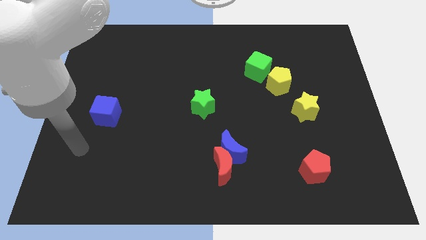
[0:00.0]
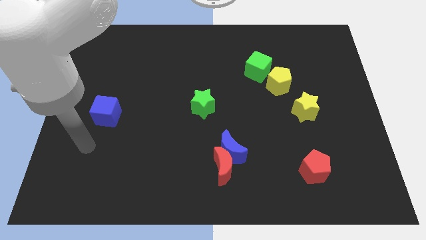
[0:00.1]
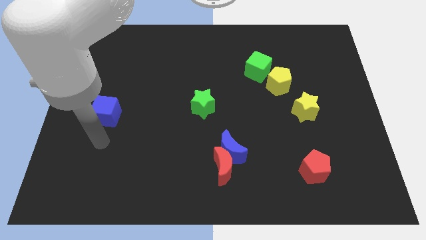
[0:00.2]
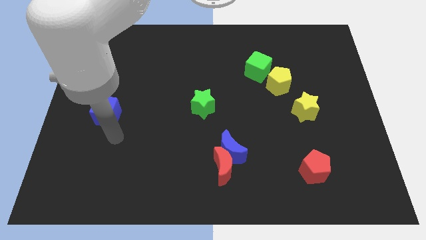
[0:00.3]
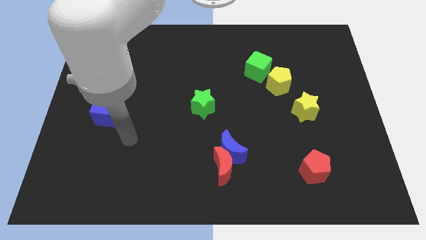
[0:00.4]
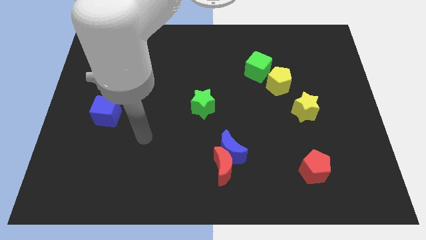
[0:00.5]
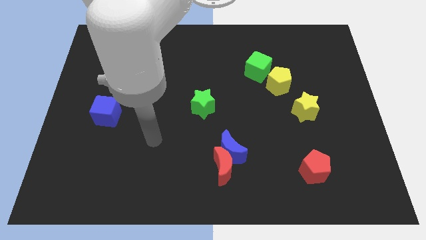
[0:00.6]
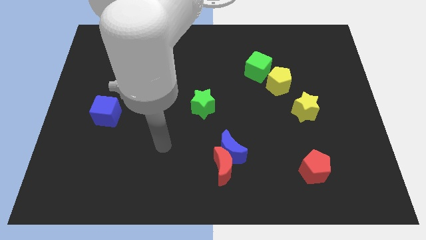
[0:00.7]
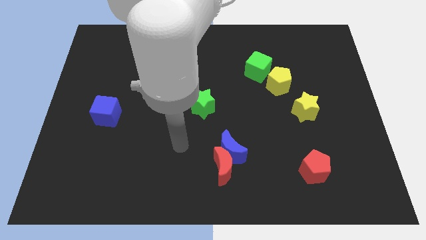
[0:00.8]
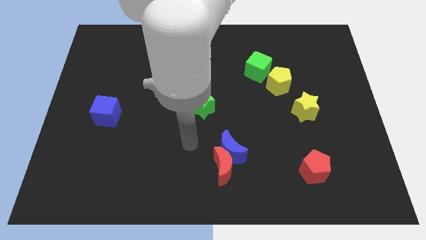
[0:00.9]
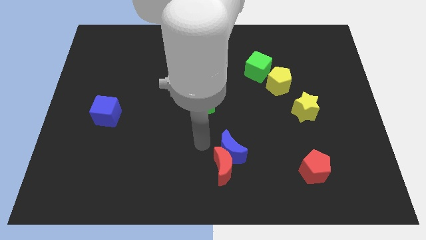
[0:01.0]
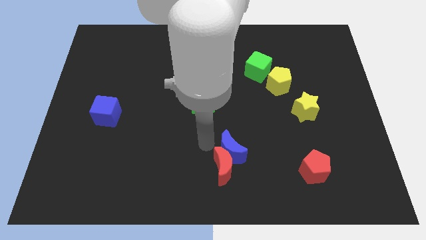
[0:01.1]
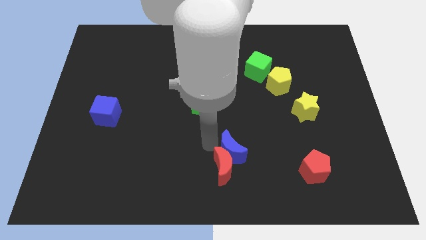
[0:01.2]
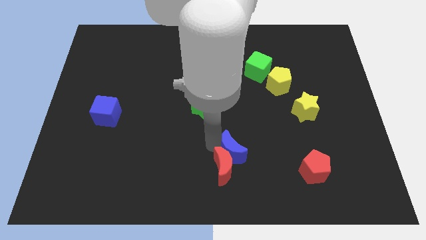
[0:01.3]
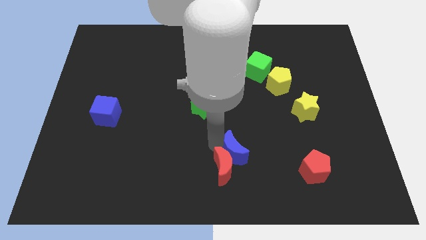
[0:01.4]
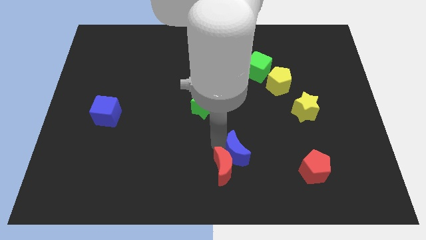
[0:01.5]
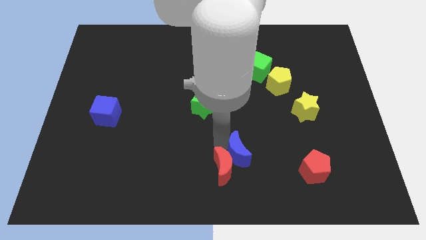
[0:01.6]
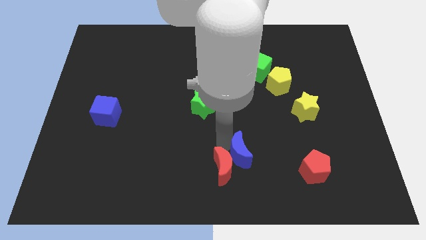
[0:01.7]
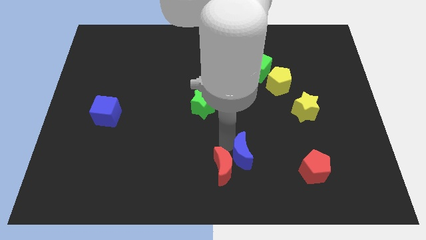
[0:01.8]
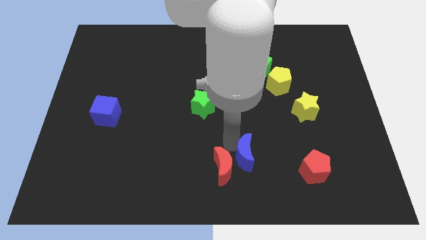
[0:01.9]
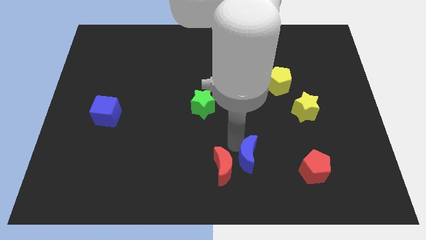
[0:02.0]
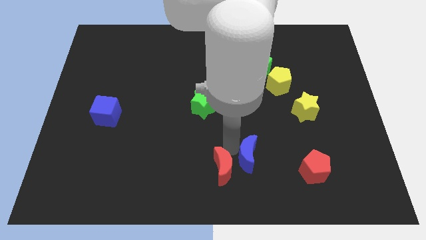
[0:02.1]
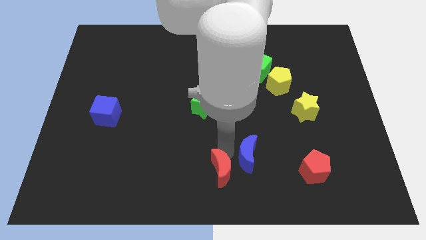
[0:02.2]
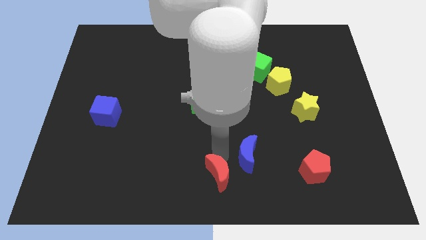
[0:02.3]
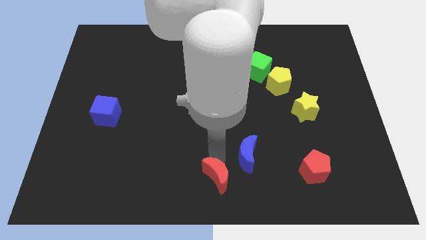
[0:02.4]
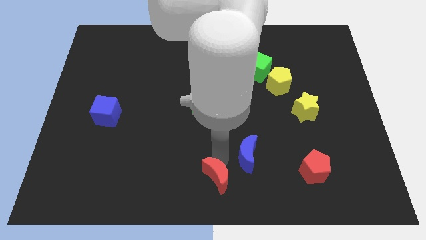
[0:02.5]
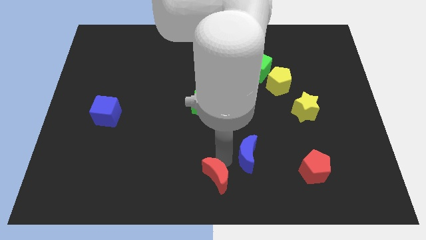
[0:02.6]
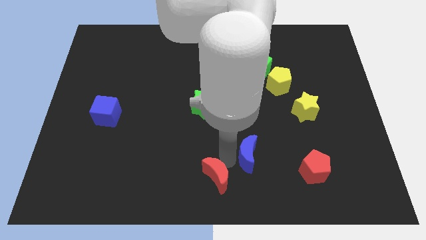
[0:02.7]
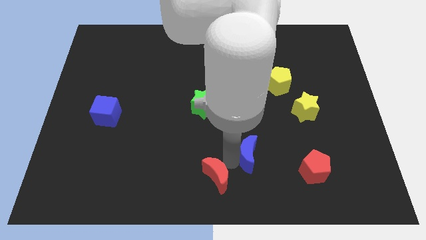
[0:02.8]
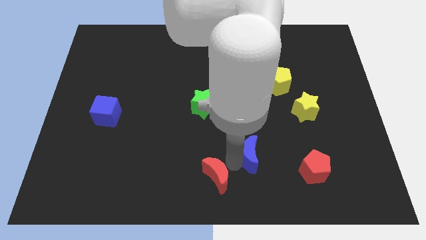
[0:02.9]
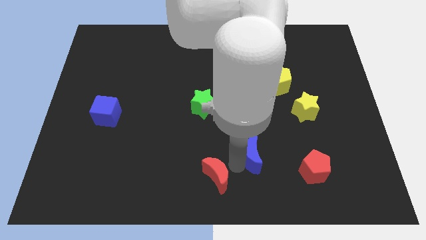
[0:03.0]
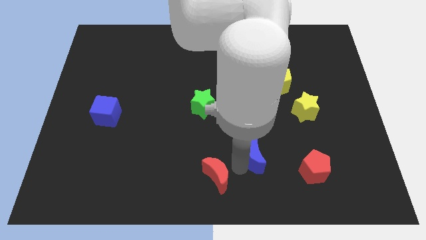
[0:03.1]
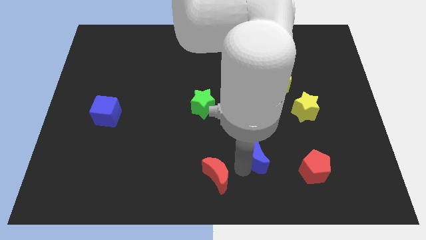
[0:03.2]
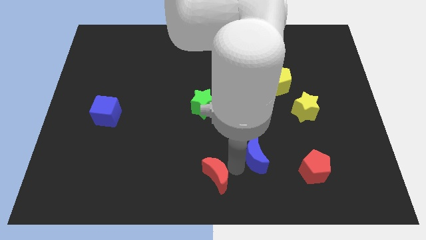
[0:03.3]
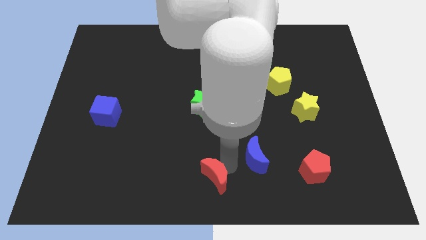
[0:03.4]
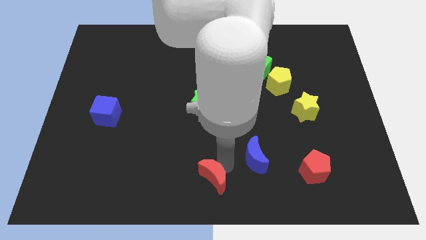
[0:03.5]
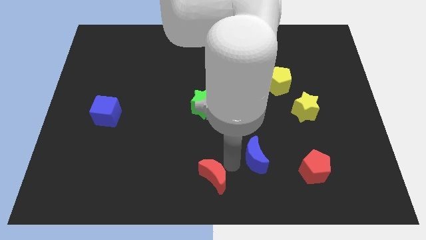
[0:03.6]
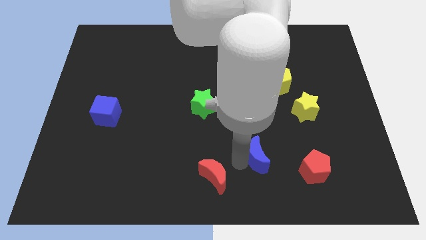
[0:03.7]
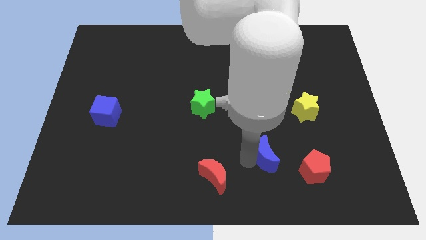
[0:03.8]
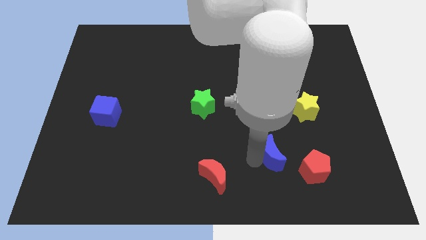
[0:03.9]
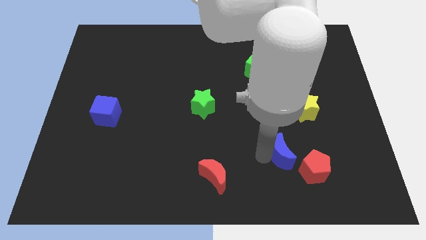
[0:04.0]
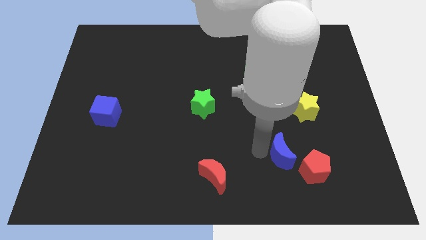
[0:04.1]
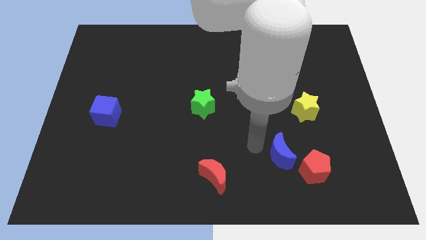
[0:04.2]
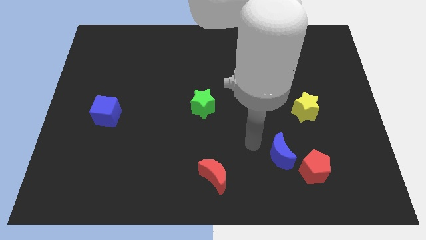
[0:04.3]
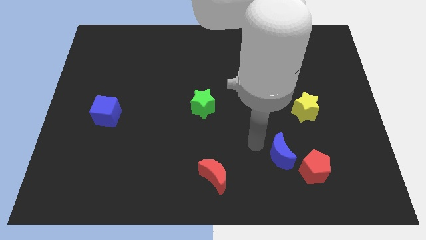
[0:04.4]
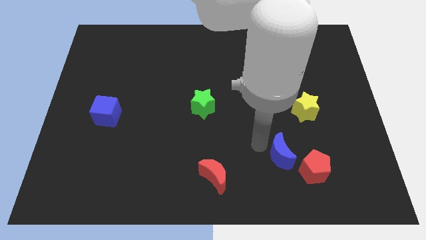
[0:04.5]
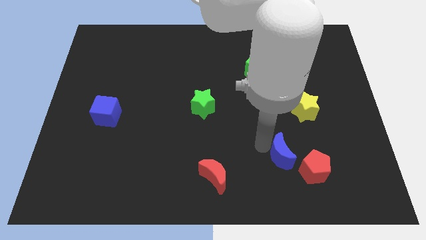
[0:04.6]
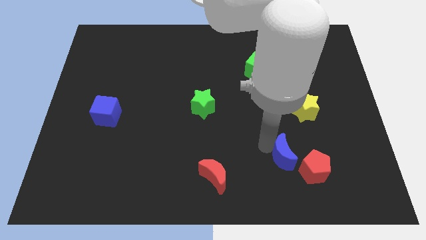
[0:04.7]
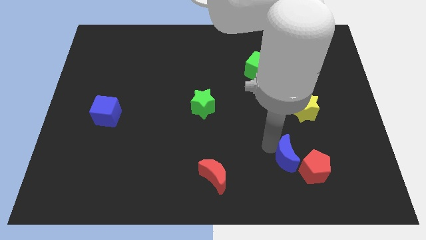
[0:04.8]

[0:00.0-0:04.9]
slide the blue moon towards the red pentagon

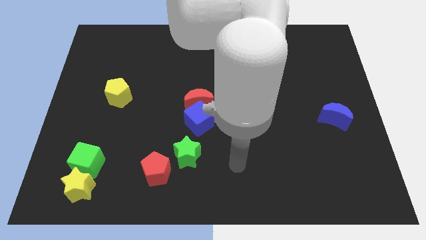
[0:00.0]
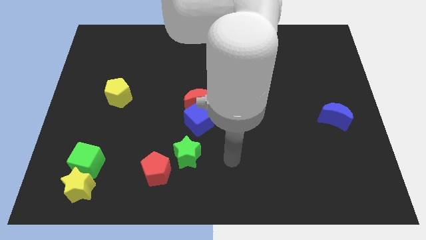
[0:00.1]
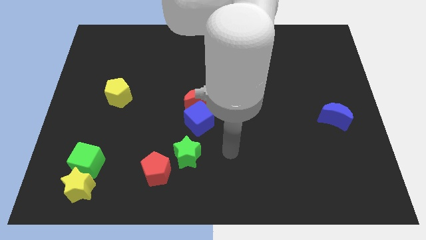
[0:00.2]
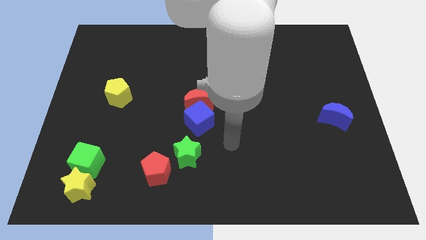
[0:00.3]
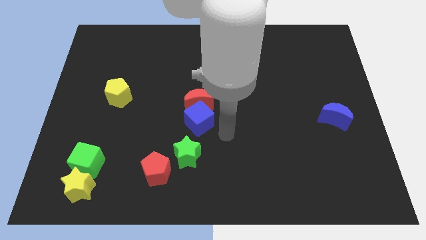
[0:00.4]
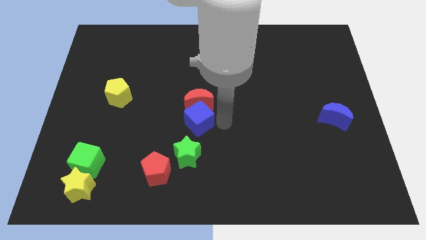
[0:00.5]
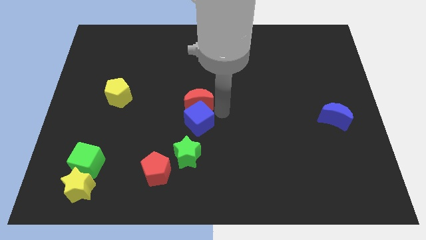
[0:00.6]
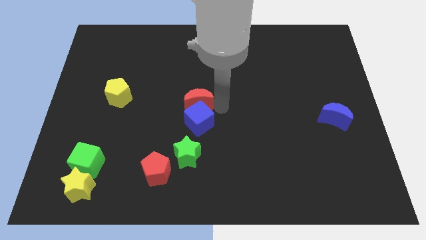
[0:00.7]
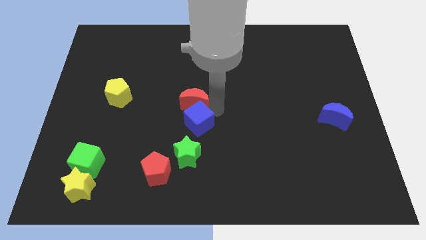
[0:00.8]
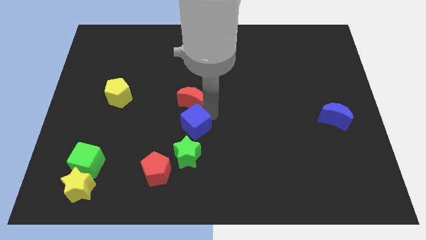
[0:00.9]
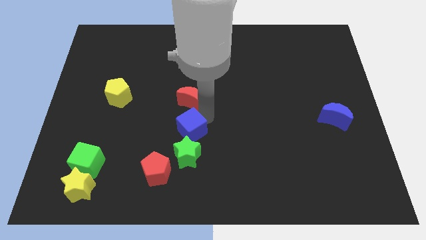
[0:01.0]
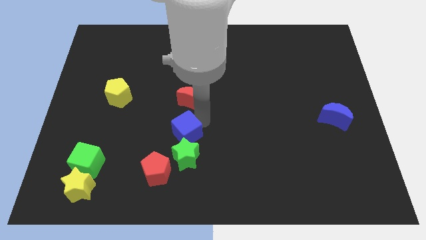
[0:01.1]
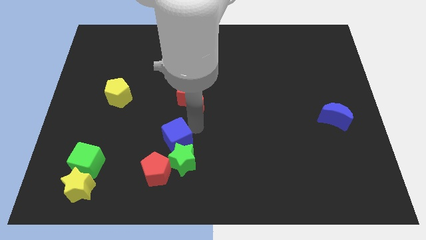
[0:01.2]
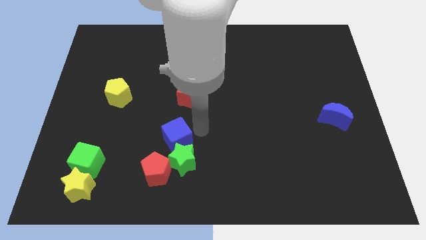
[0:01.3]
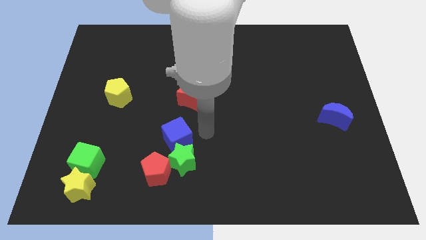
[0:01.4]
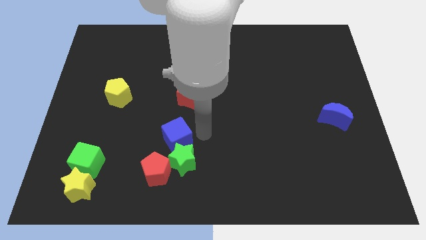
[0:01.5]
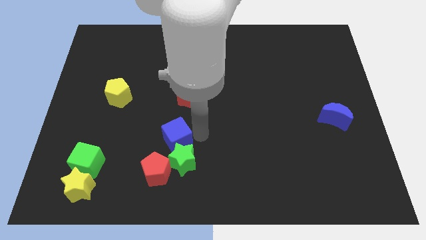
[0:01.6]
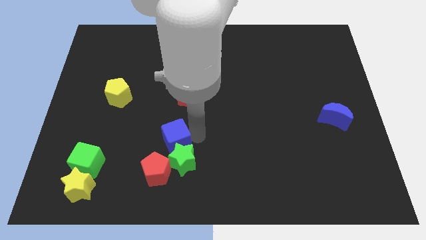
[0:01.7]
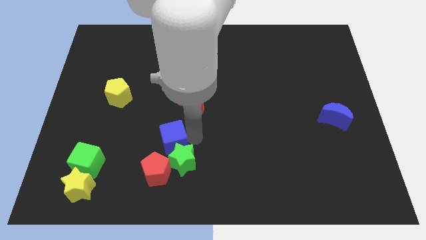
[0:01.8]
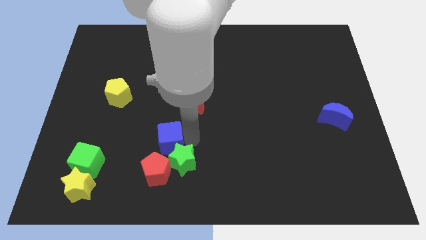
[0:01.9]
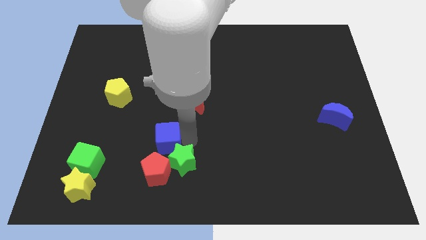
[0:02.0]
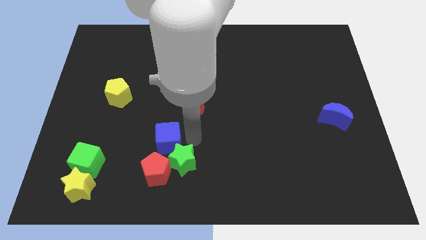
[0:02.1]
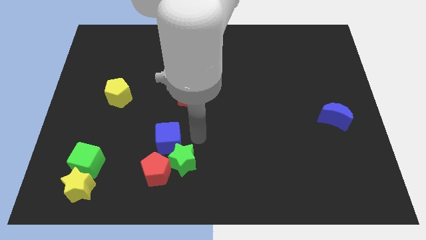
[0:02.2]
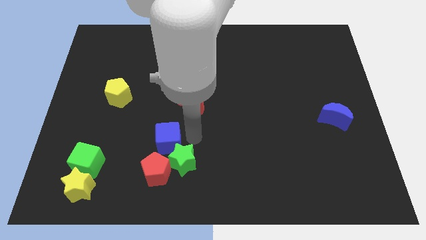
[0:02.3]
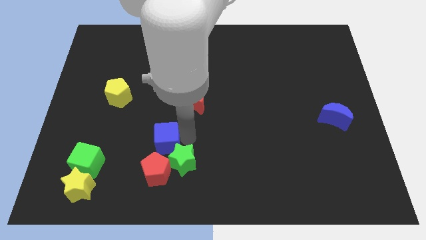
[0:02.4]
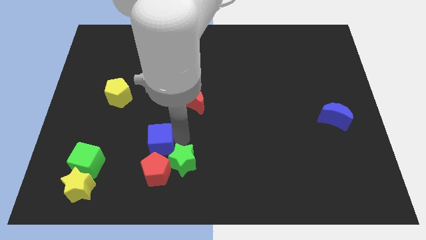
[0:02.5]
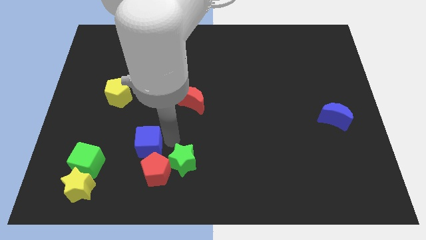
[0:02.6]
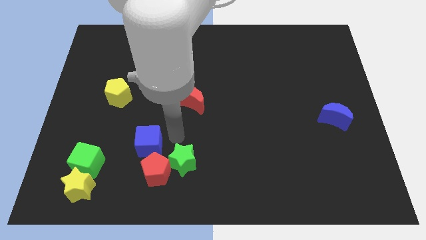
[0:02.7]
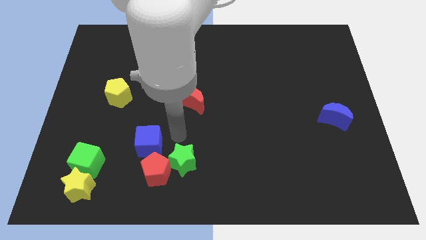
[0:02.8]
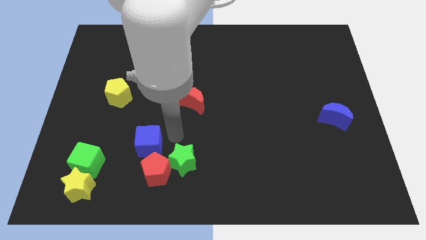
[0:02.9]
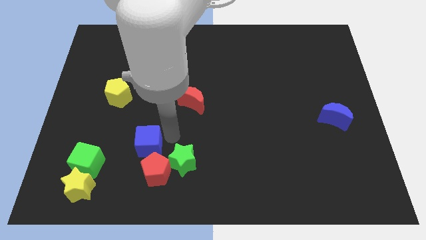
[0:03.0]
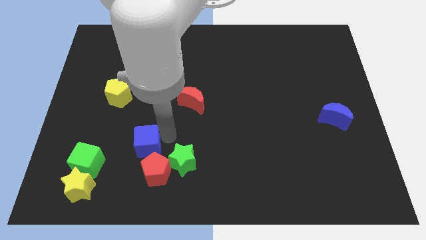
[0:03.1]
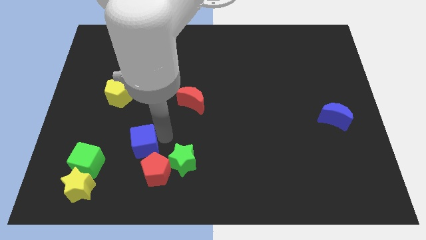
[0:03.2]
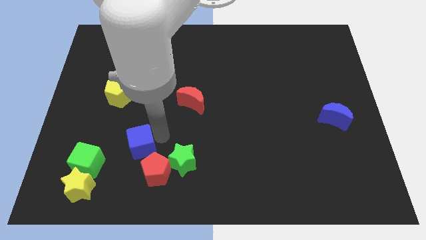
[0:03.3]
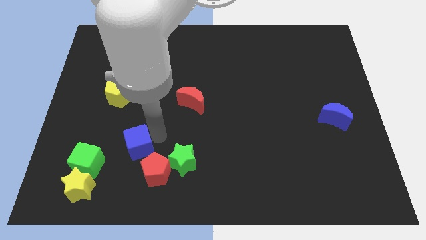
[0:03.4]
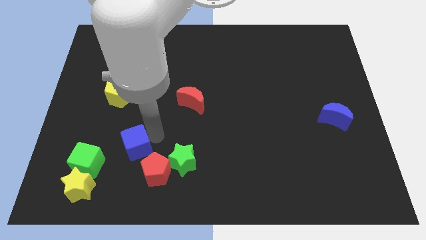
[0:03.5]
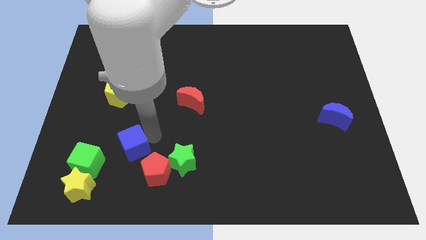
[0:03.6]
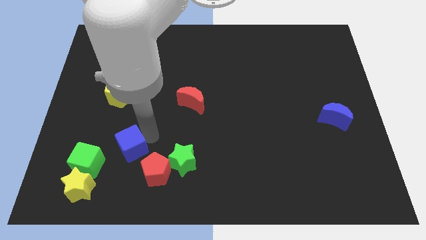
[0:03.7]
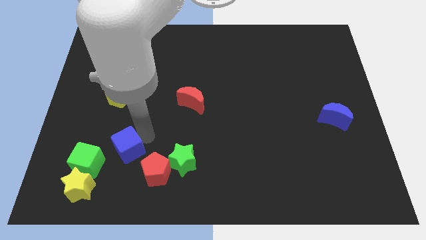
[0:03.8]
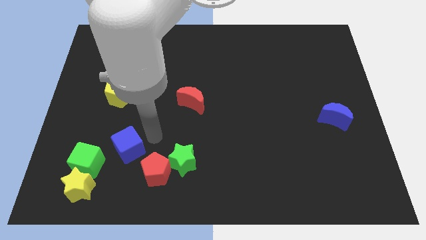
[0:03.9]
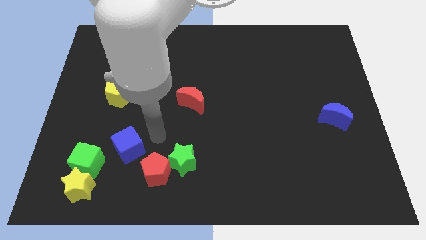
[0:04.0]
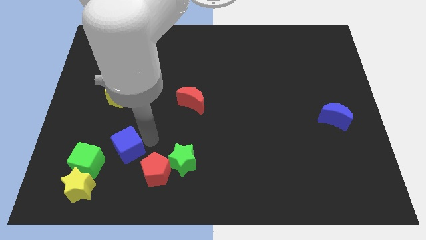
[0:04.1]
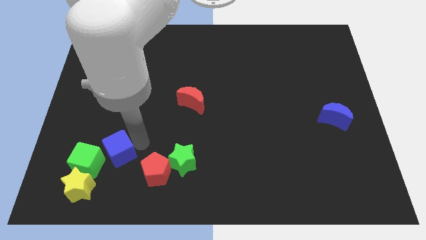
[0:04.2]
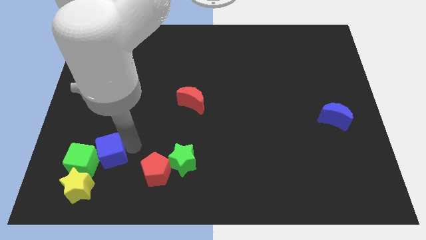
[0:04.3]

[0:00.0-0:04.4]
put the blue cube to the green cube
